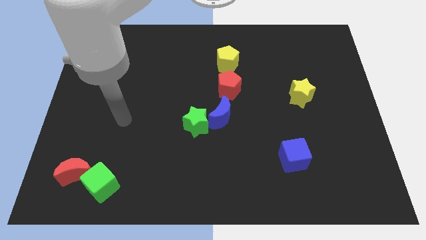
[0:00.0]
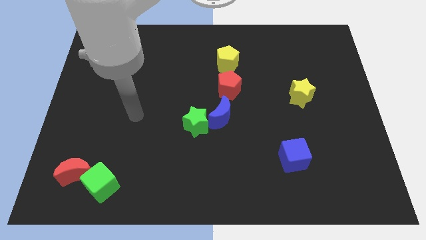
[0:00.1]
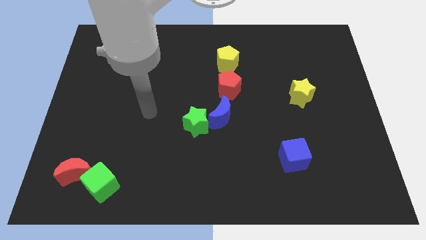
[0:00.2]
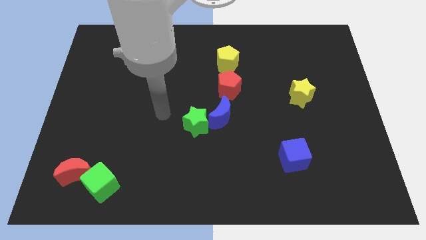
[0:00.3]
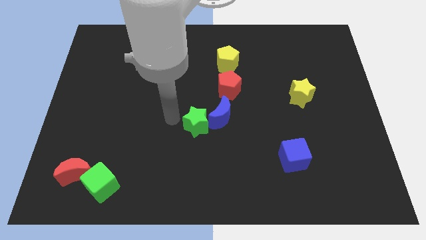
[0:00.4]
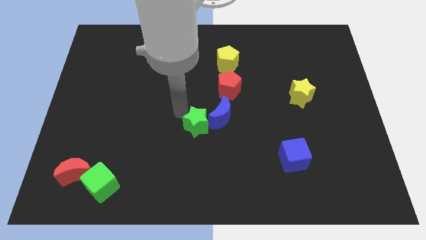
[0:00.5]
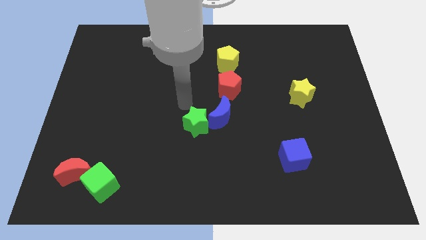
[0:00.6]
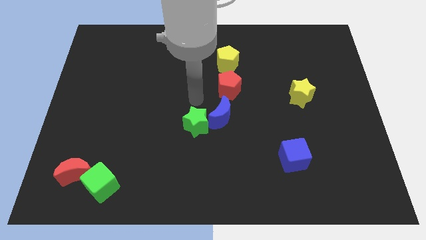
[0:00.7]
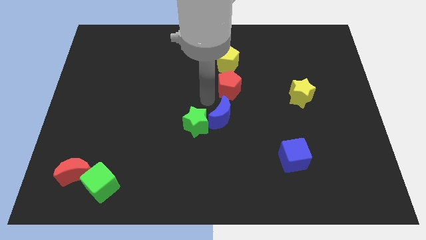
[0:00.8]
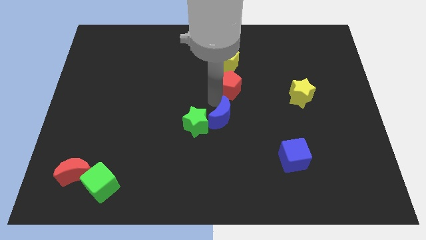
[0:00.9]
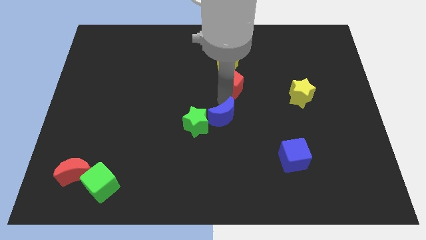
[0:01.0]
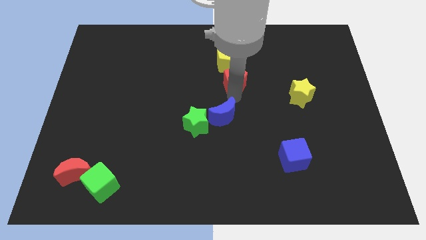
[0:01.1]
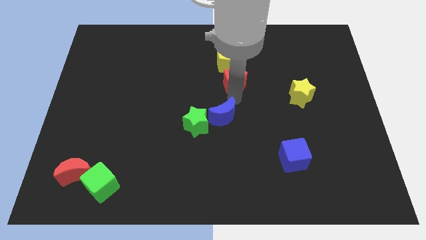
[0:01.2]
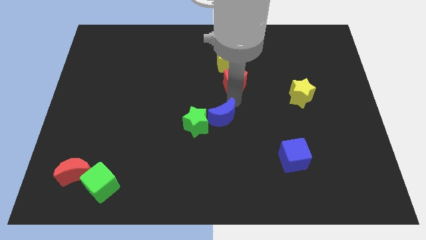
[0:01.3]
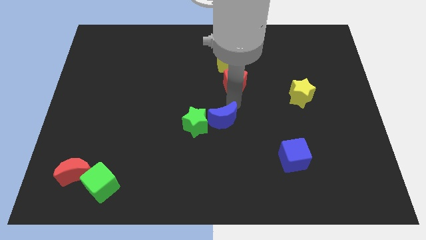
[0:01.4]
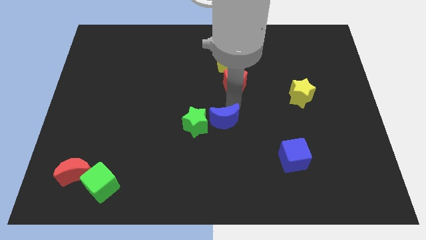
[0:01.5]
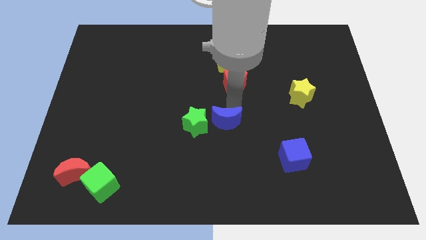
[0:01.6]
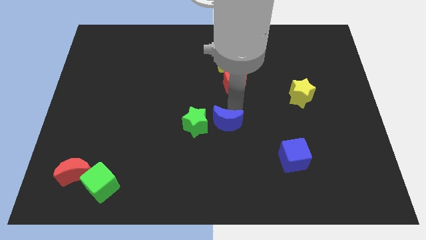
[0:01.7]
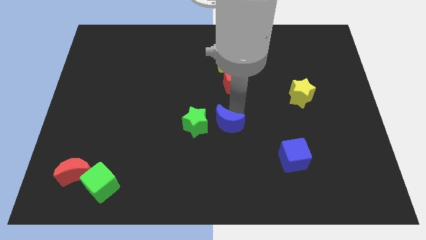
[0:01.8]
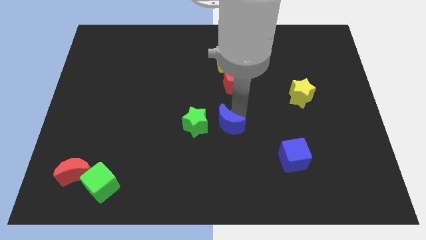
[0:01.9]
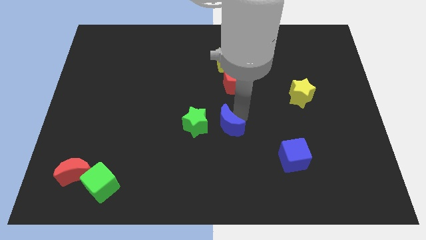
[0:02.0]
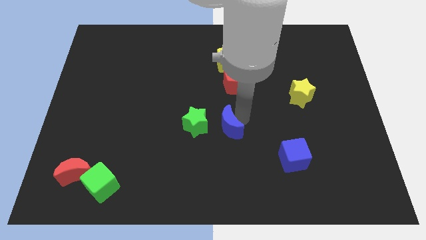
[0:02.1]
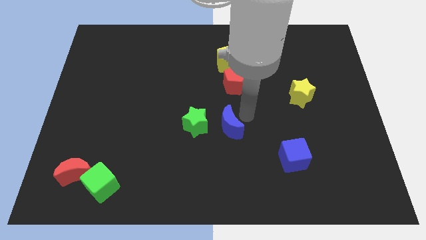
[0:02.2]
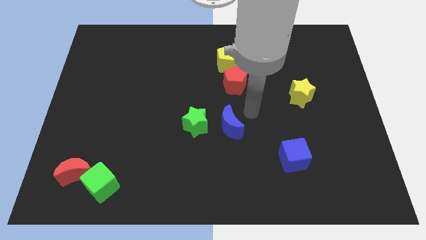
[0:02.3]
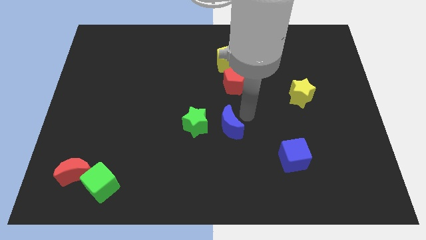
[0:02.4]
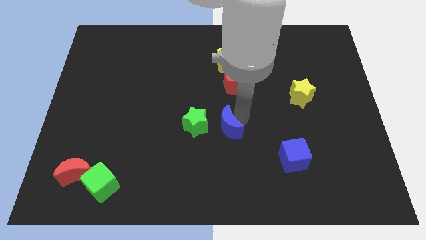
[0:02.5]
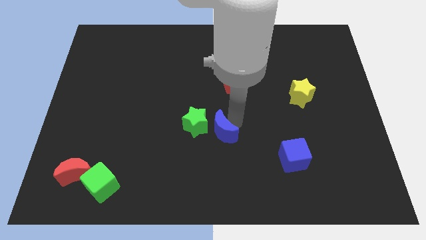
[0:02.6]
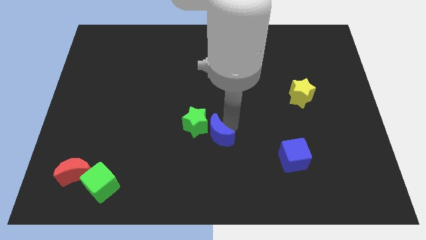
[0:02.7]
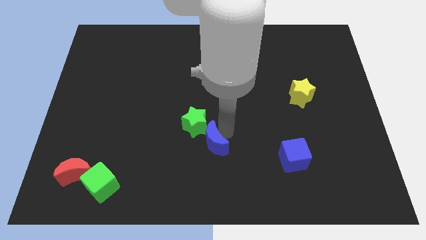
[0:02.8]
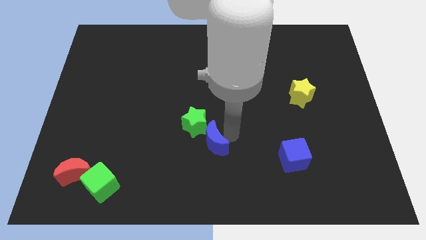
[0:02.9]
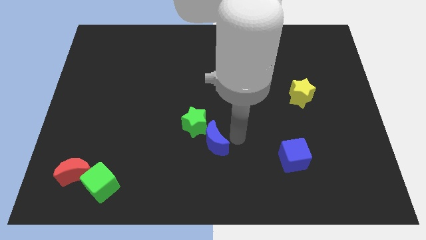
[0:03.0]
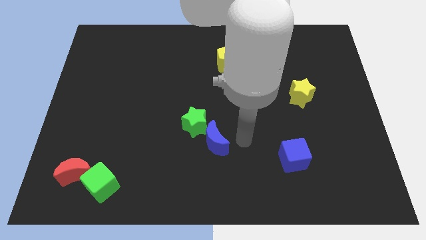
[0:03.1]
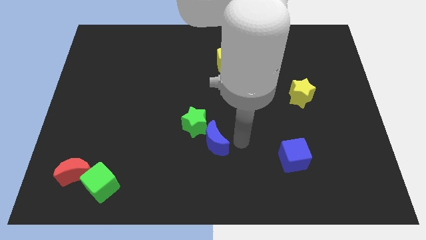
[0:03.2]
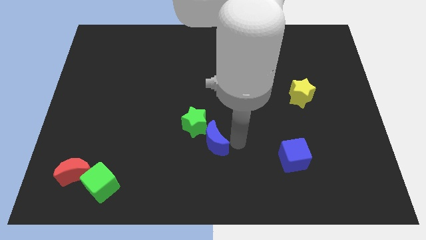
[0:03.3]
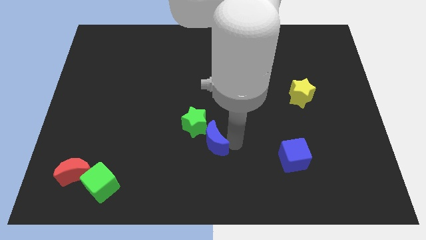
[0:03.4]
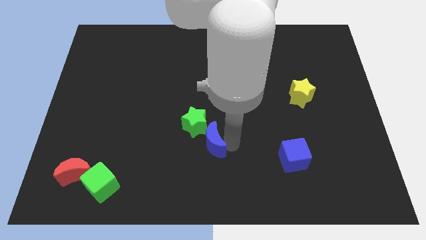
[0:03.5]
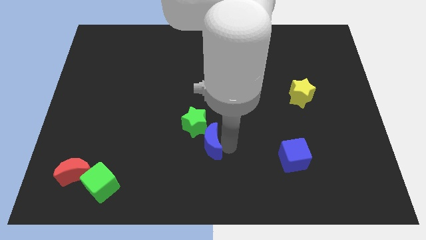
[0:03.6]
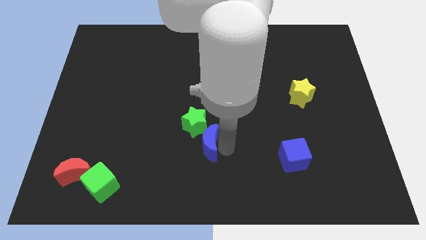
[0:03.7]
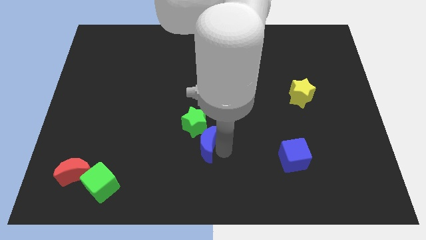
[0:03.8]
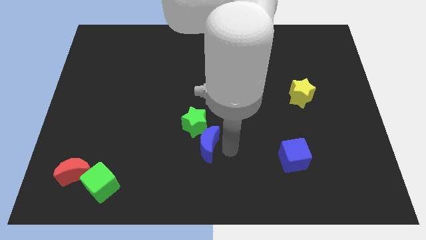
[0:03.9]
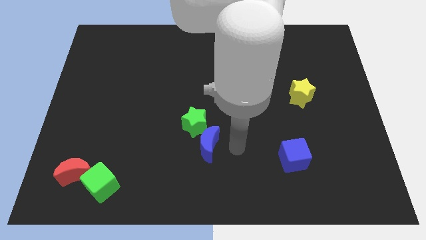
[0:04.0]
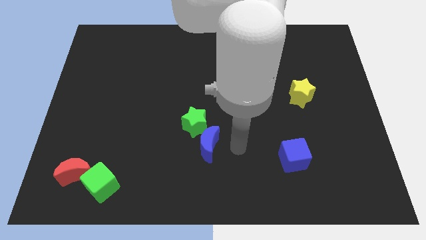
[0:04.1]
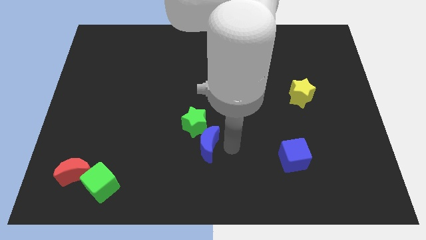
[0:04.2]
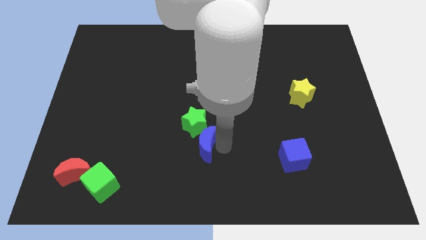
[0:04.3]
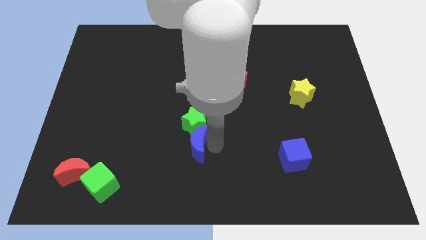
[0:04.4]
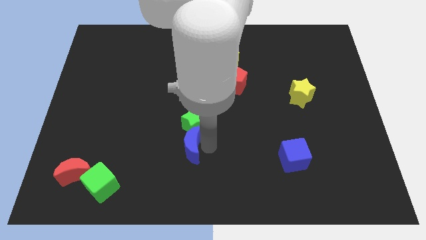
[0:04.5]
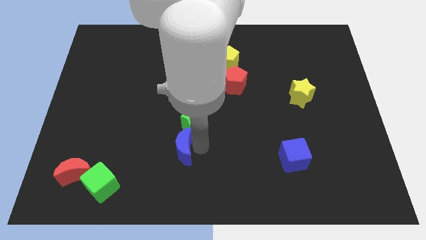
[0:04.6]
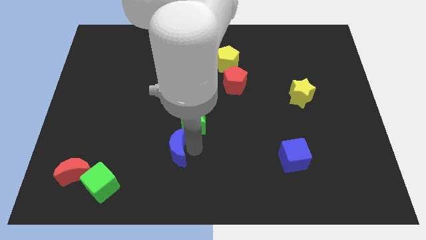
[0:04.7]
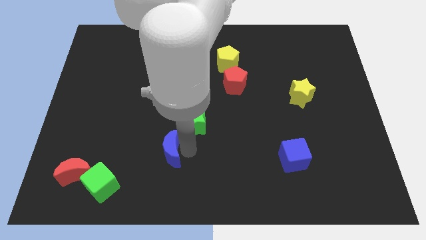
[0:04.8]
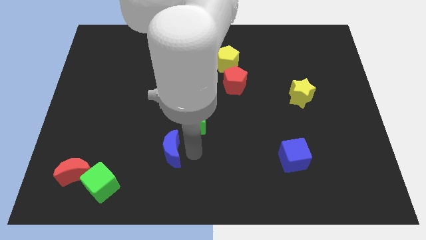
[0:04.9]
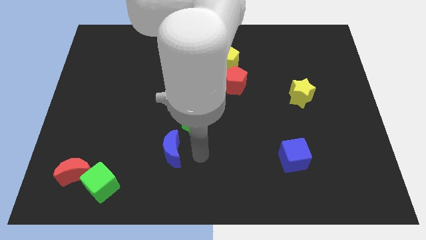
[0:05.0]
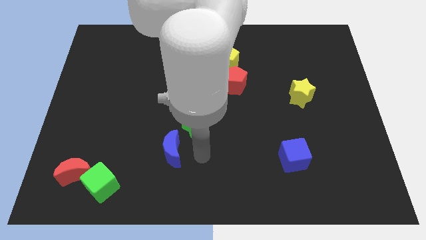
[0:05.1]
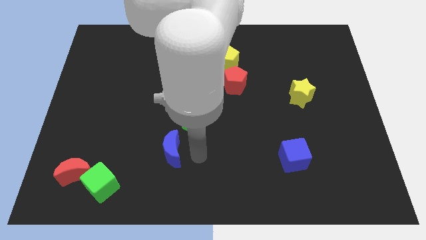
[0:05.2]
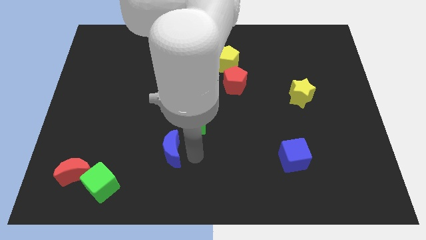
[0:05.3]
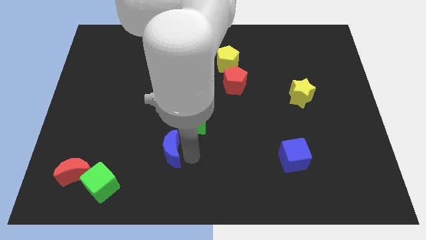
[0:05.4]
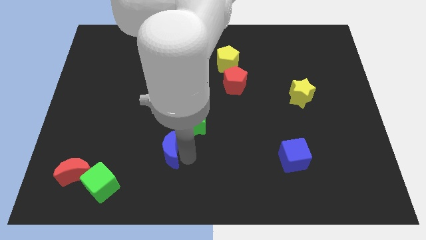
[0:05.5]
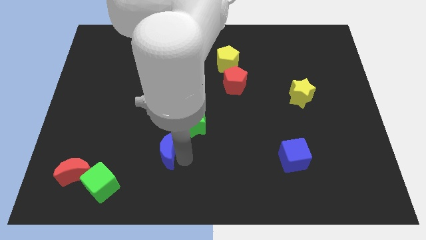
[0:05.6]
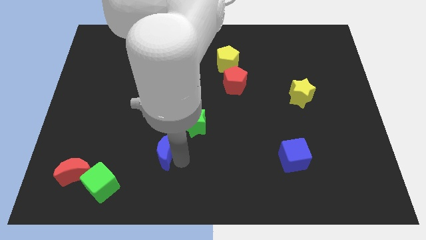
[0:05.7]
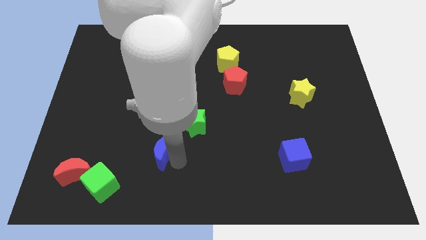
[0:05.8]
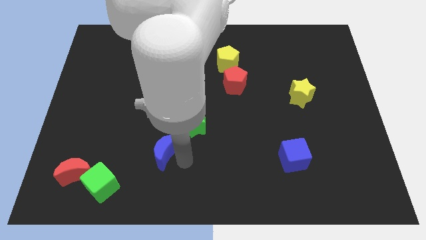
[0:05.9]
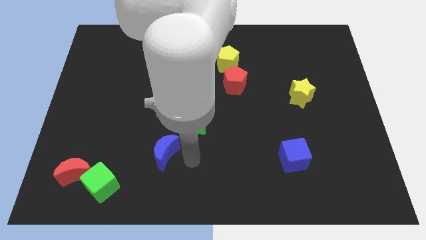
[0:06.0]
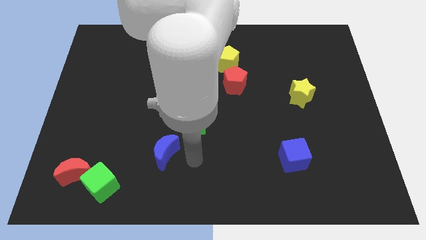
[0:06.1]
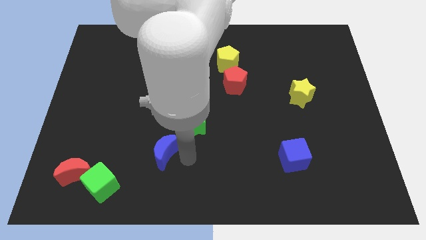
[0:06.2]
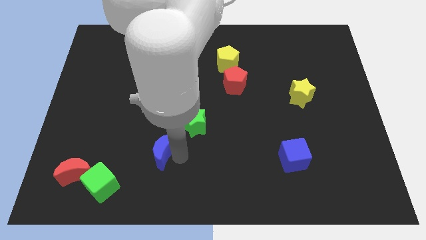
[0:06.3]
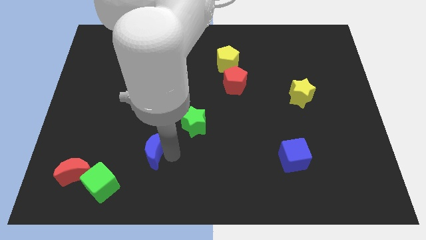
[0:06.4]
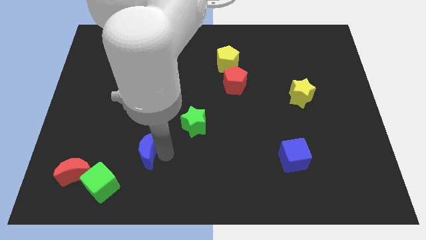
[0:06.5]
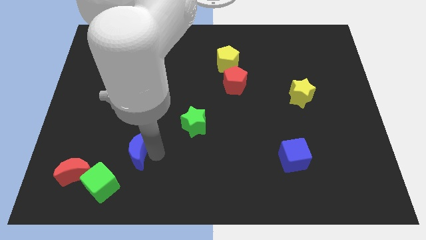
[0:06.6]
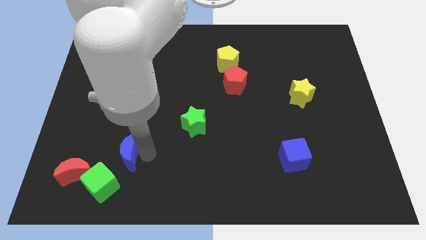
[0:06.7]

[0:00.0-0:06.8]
push the blue moon to the top of the green cube

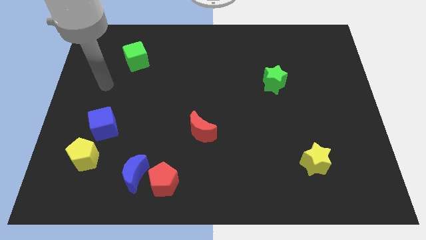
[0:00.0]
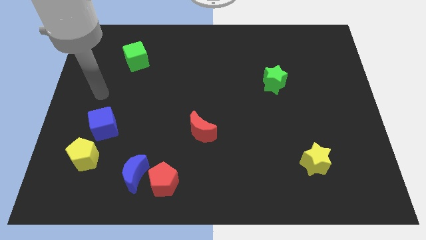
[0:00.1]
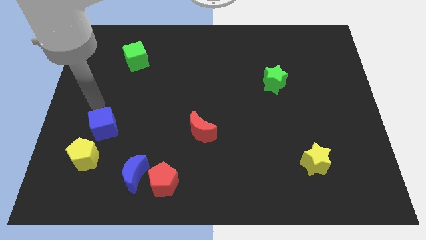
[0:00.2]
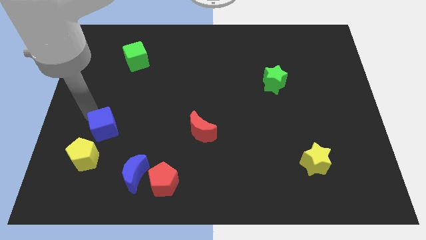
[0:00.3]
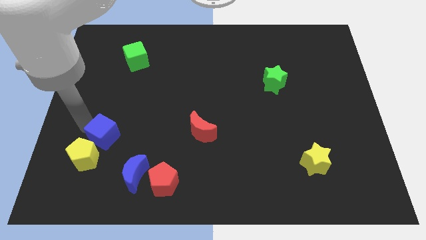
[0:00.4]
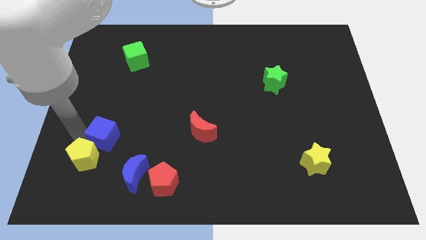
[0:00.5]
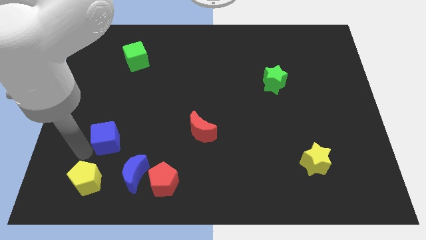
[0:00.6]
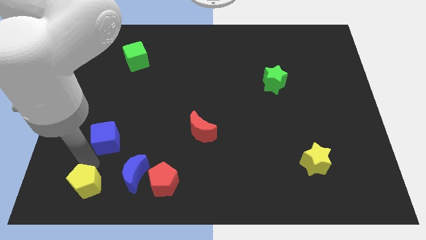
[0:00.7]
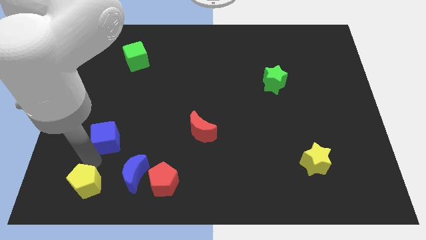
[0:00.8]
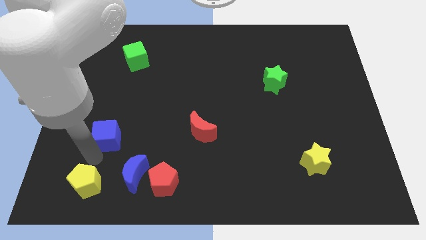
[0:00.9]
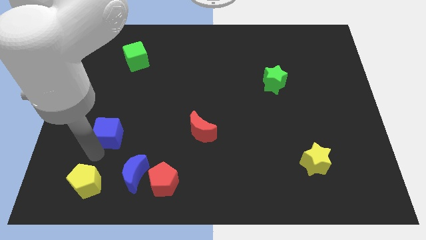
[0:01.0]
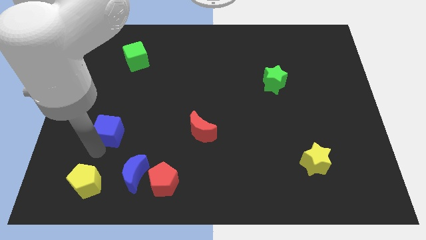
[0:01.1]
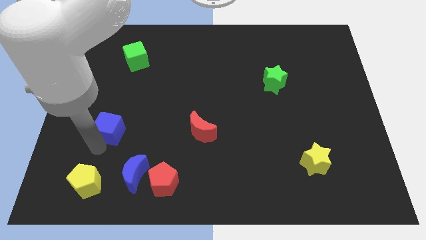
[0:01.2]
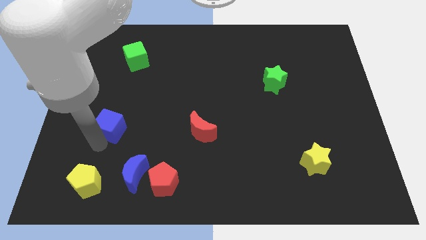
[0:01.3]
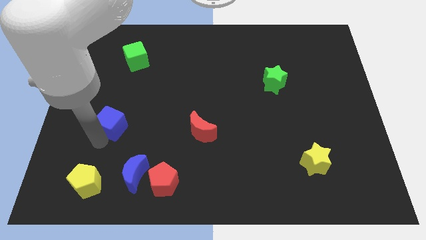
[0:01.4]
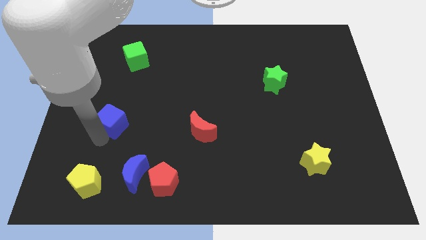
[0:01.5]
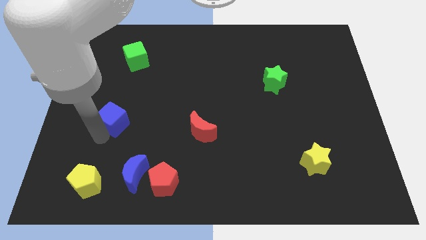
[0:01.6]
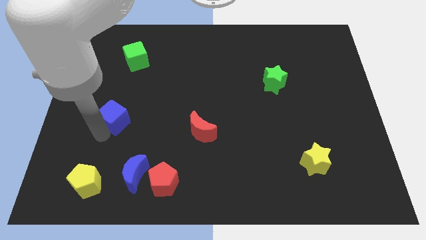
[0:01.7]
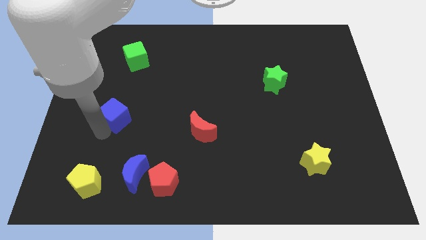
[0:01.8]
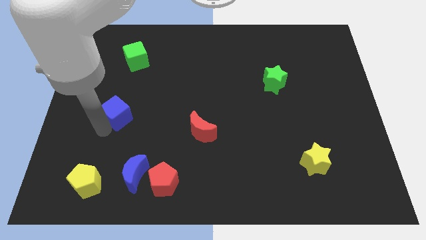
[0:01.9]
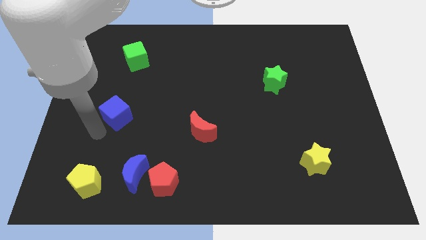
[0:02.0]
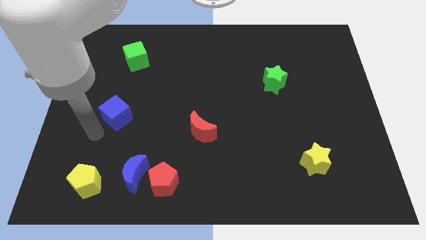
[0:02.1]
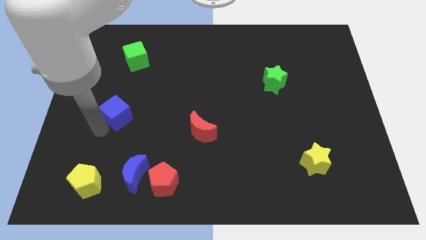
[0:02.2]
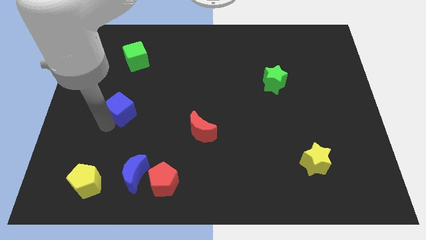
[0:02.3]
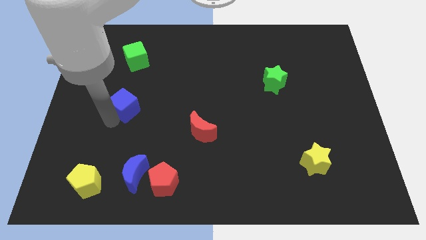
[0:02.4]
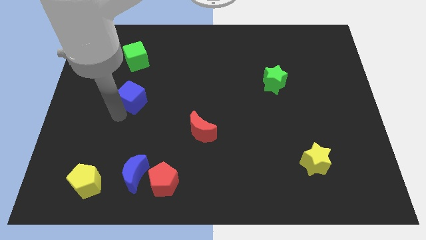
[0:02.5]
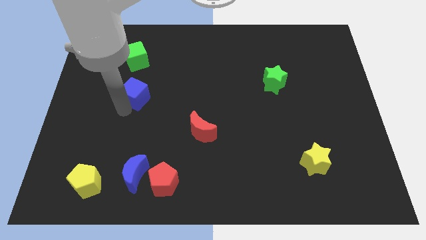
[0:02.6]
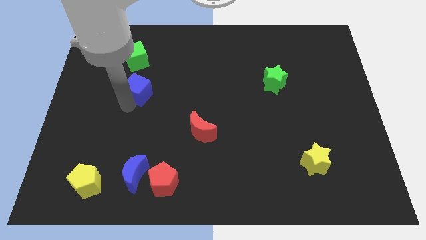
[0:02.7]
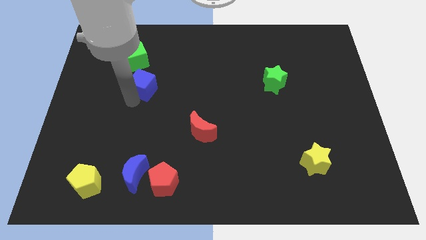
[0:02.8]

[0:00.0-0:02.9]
move the blue cube diagonally down and to the right of the green cube
